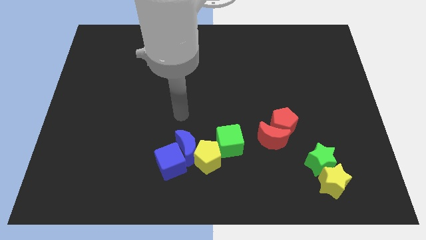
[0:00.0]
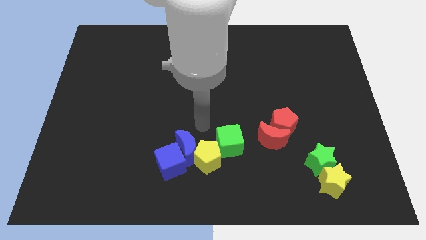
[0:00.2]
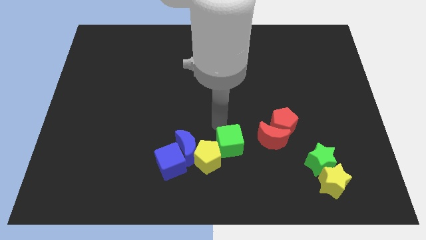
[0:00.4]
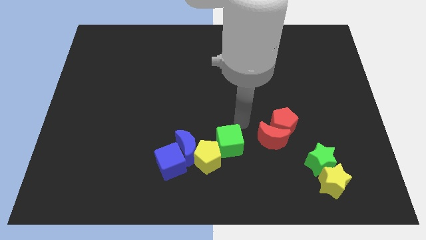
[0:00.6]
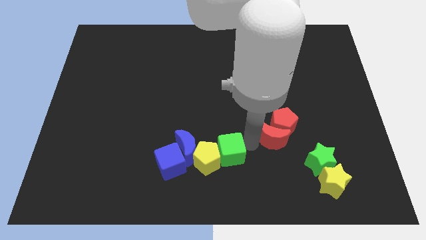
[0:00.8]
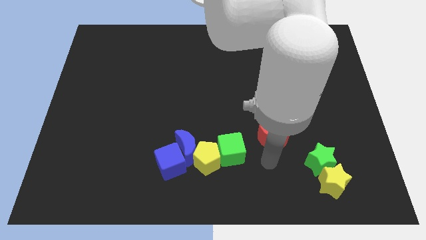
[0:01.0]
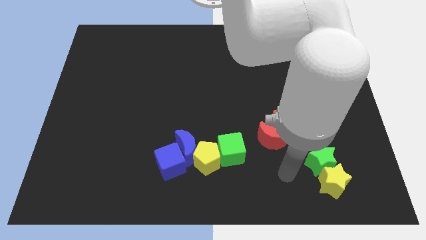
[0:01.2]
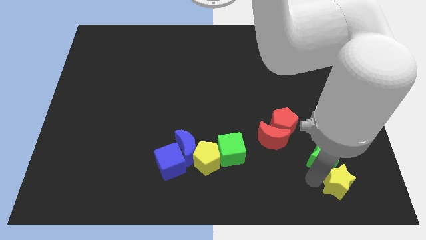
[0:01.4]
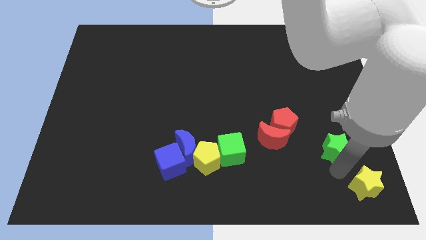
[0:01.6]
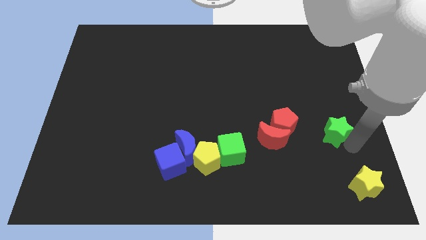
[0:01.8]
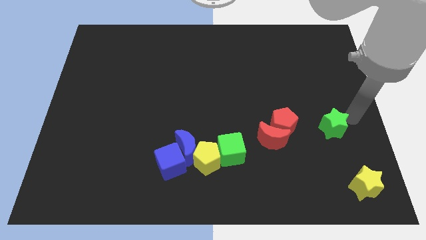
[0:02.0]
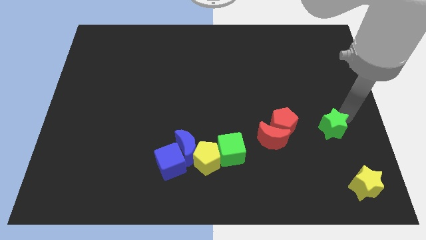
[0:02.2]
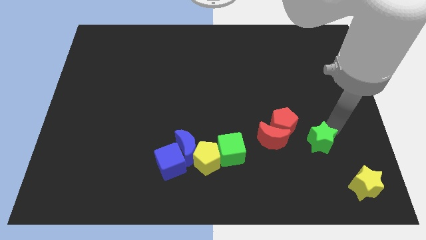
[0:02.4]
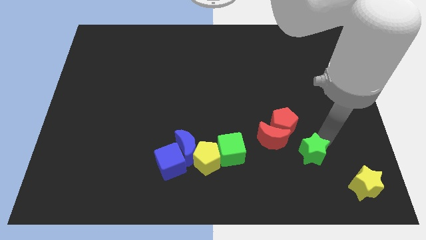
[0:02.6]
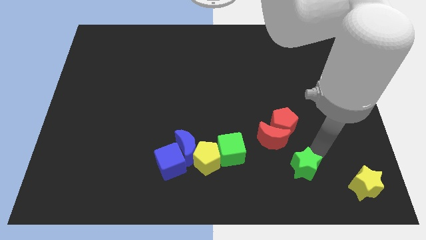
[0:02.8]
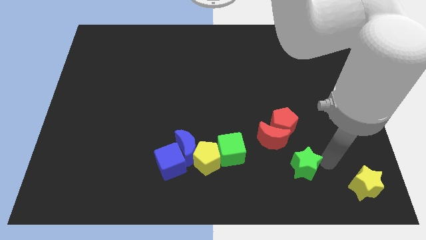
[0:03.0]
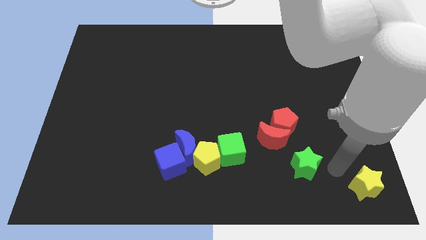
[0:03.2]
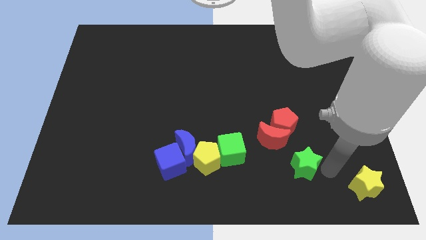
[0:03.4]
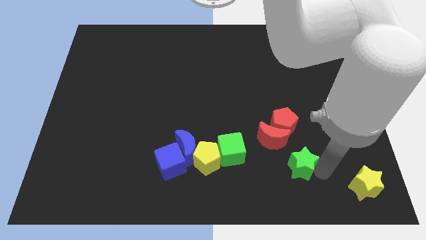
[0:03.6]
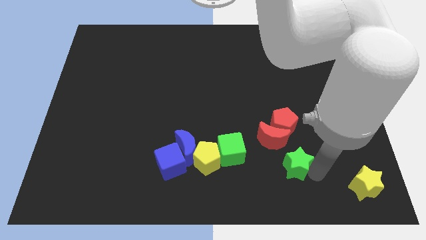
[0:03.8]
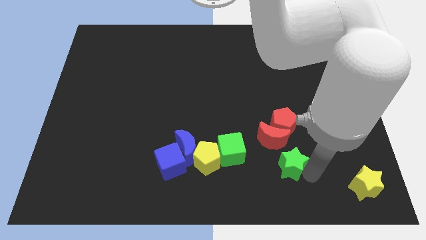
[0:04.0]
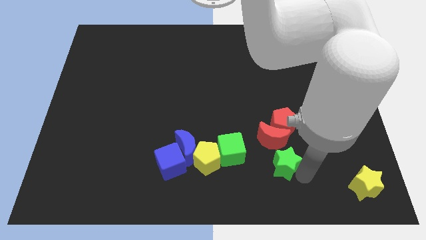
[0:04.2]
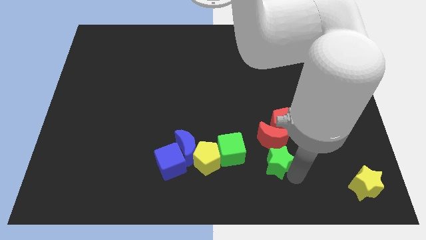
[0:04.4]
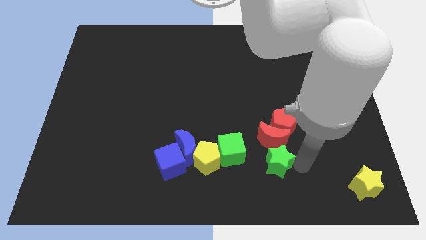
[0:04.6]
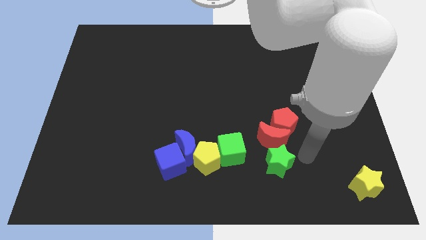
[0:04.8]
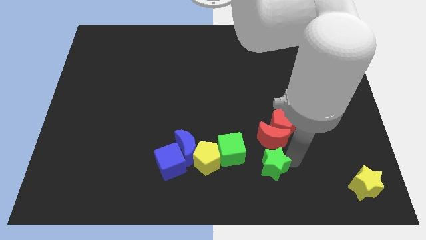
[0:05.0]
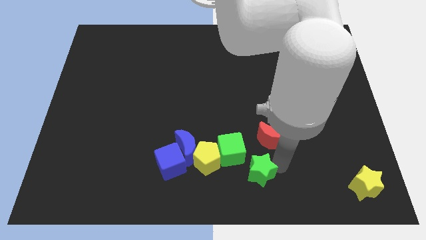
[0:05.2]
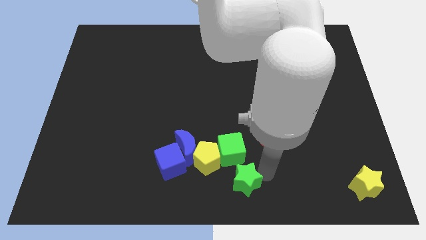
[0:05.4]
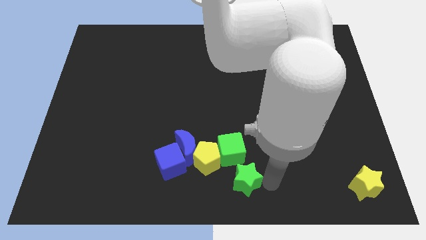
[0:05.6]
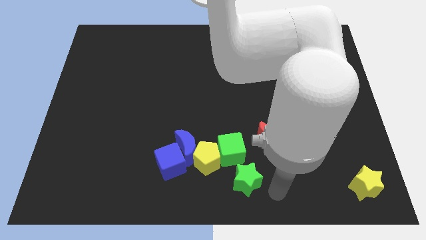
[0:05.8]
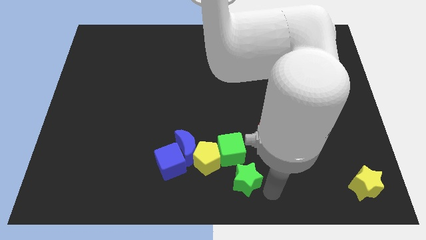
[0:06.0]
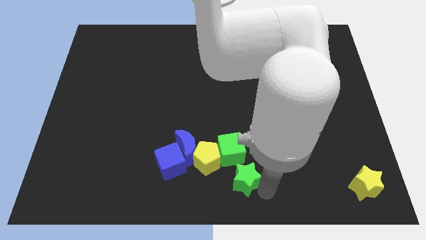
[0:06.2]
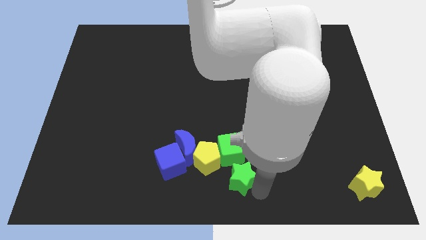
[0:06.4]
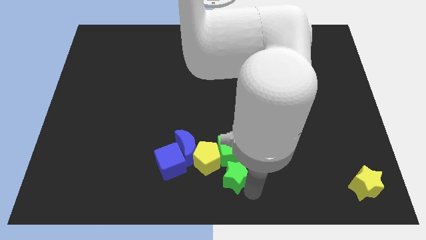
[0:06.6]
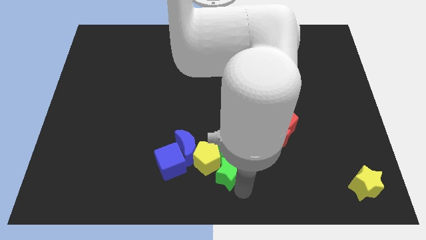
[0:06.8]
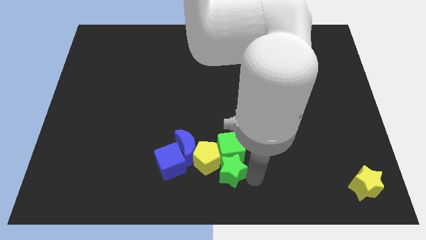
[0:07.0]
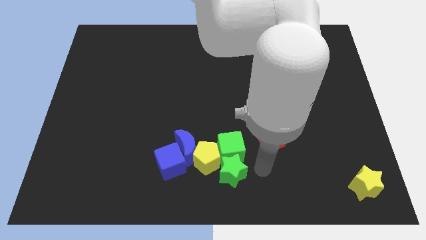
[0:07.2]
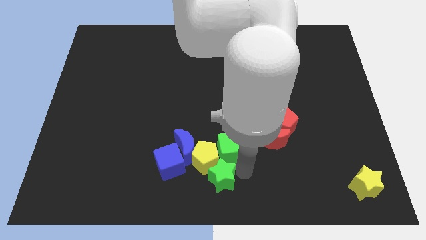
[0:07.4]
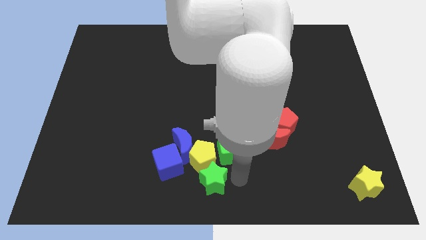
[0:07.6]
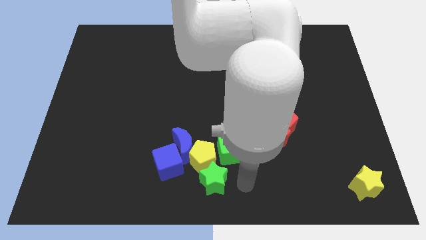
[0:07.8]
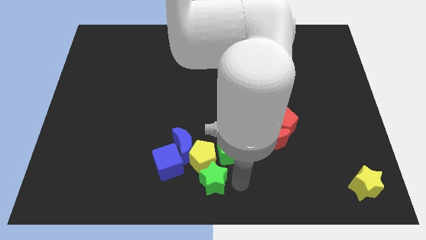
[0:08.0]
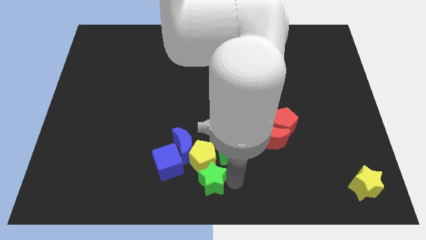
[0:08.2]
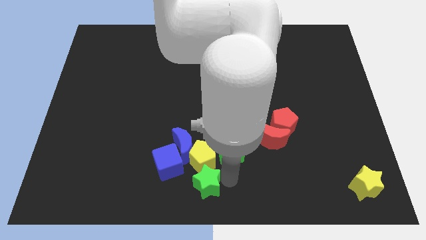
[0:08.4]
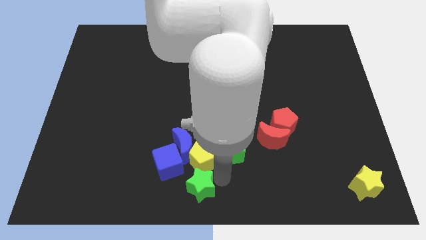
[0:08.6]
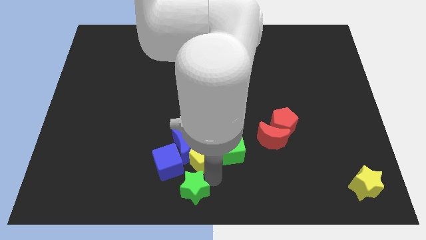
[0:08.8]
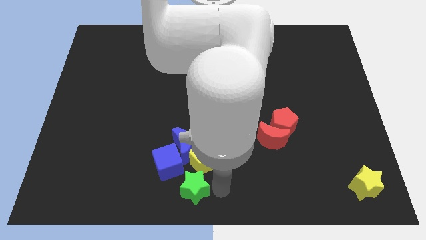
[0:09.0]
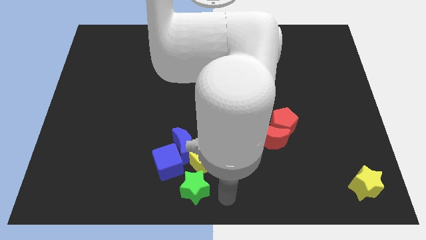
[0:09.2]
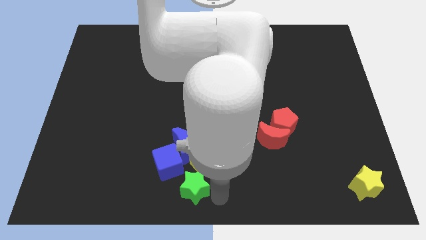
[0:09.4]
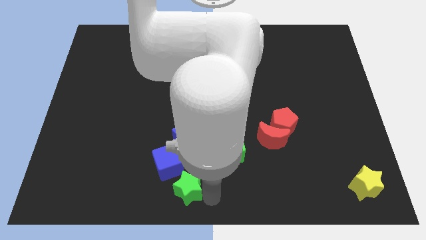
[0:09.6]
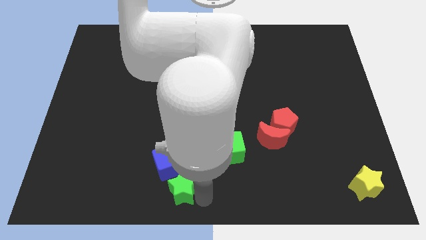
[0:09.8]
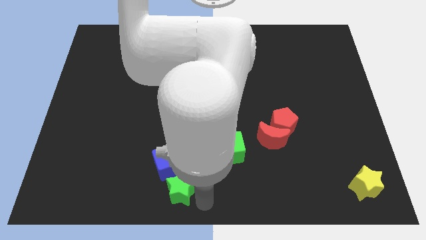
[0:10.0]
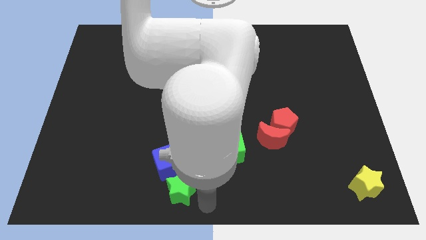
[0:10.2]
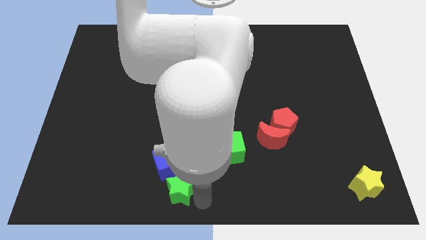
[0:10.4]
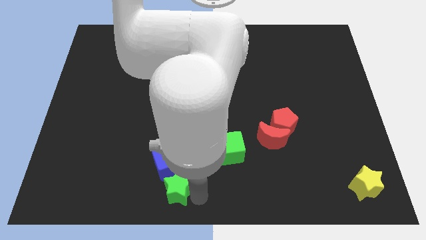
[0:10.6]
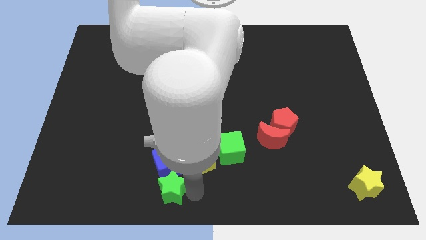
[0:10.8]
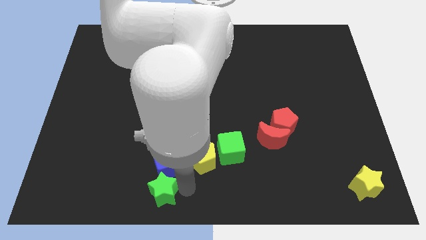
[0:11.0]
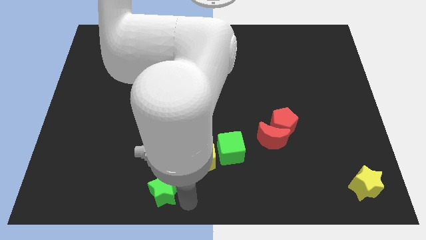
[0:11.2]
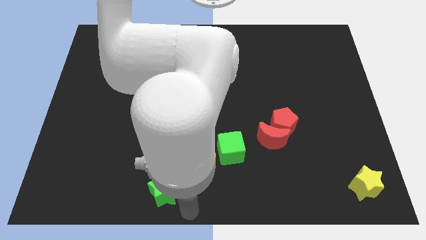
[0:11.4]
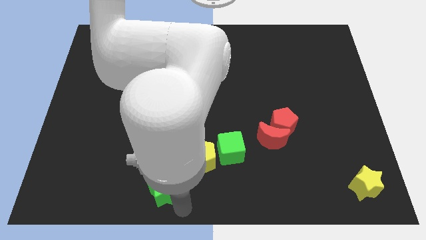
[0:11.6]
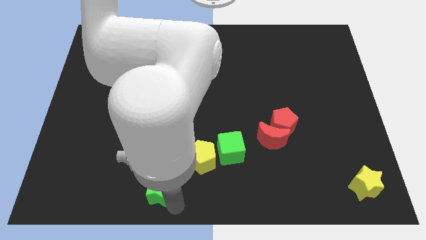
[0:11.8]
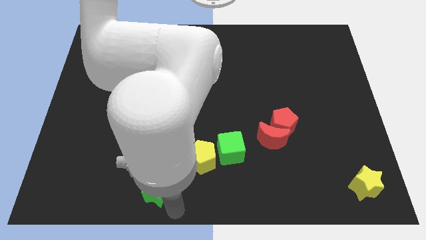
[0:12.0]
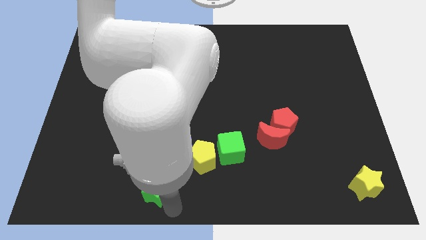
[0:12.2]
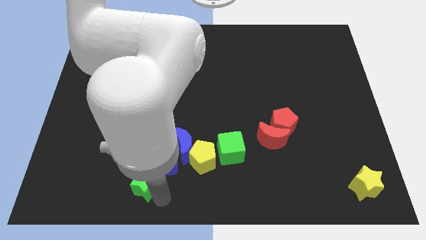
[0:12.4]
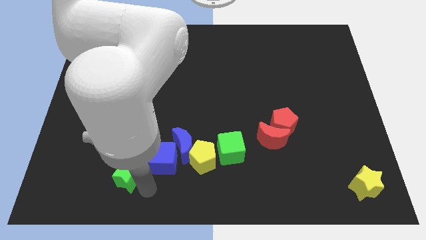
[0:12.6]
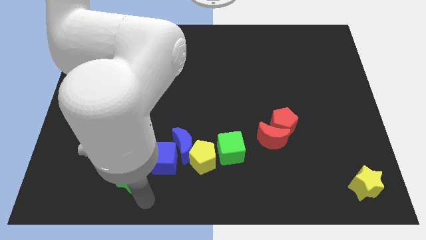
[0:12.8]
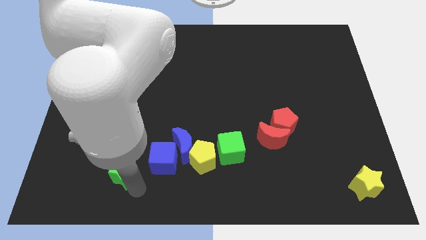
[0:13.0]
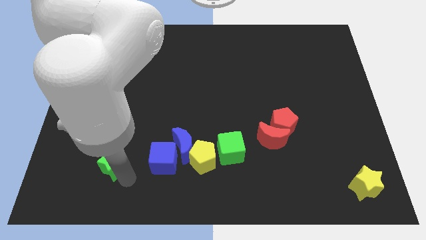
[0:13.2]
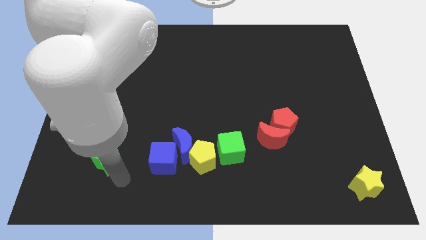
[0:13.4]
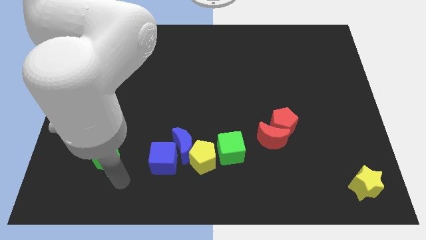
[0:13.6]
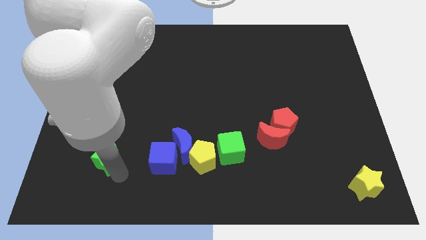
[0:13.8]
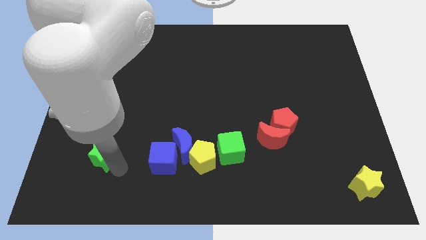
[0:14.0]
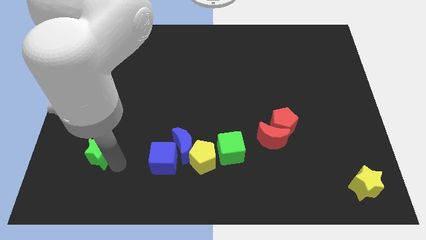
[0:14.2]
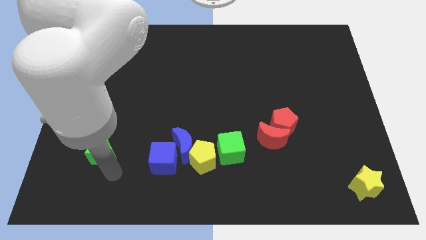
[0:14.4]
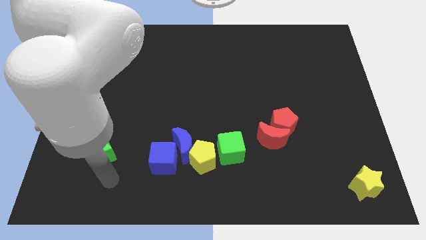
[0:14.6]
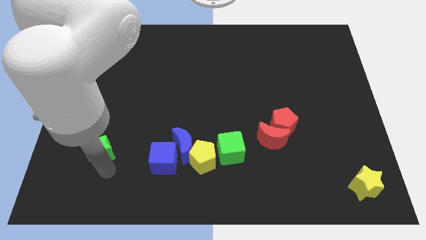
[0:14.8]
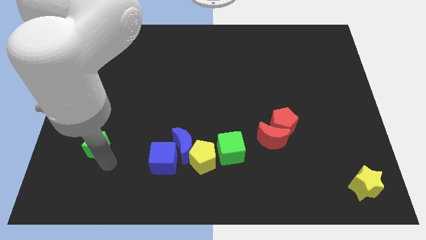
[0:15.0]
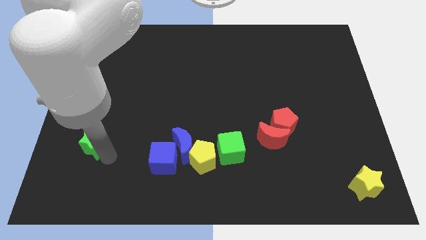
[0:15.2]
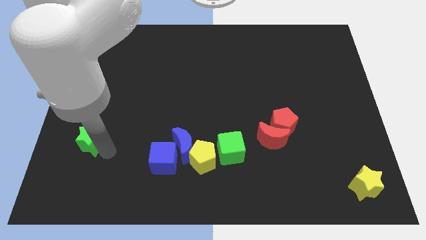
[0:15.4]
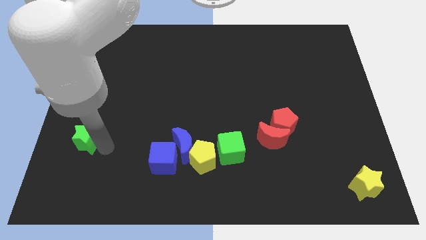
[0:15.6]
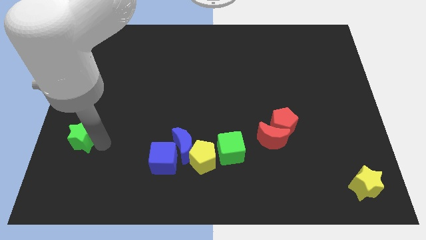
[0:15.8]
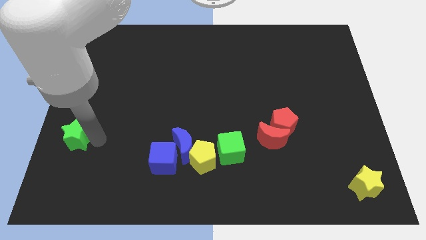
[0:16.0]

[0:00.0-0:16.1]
push the green star to the center left
